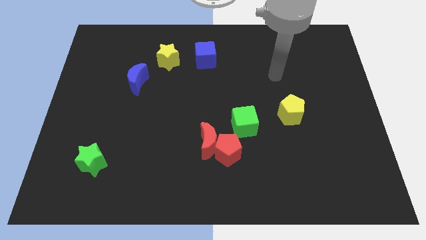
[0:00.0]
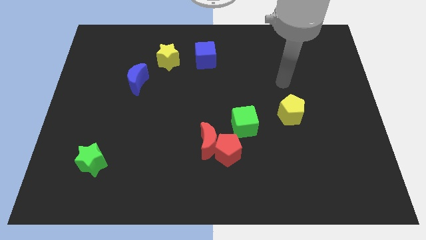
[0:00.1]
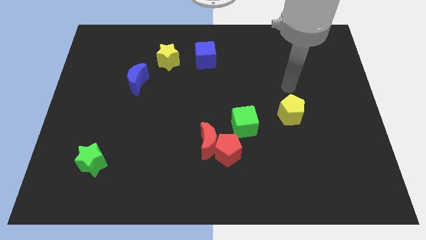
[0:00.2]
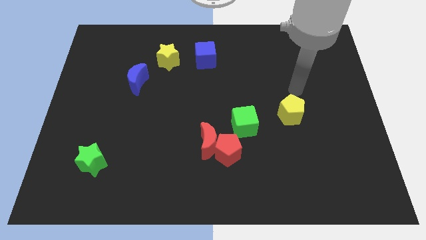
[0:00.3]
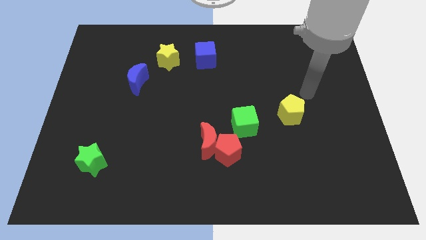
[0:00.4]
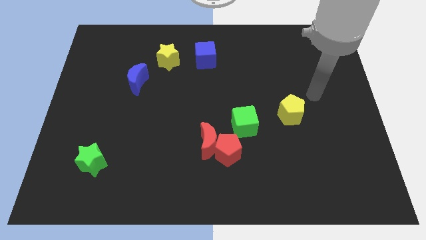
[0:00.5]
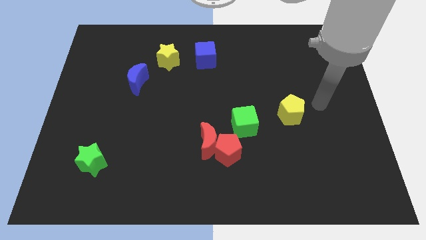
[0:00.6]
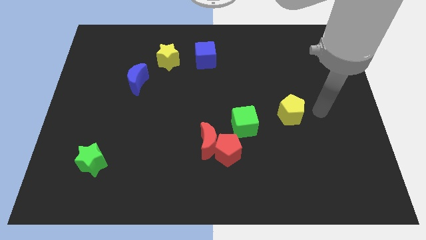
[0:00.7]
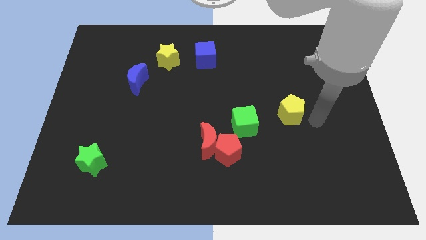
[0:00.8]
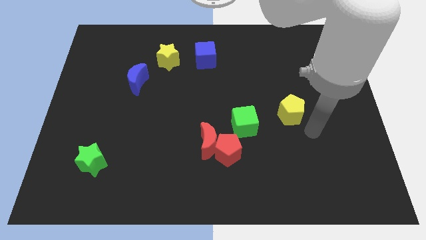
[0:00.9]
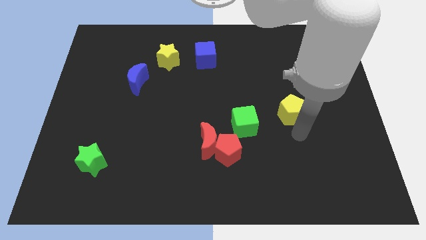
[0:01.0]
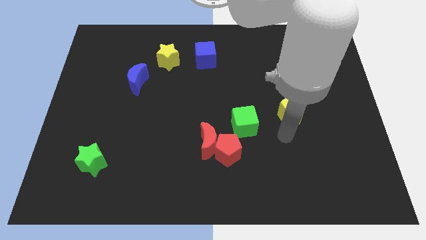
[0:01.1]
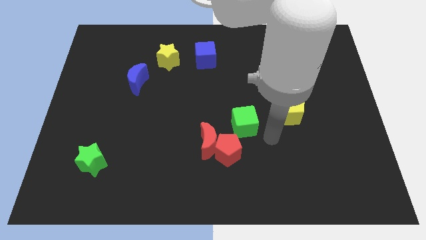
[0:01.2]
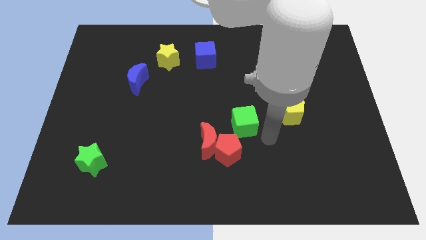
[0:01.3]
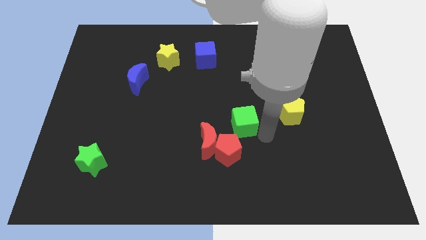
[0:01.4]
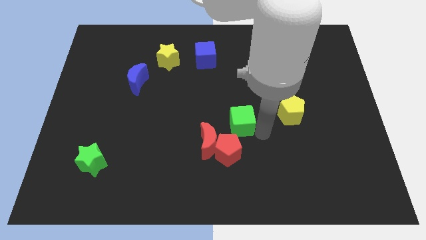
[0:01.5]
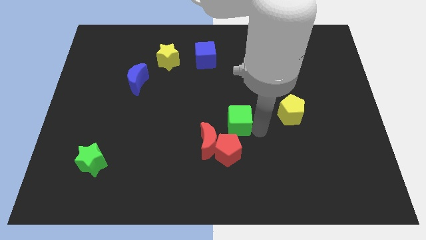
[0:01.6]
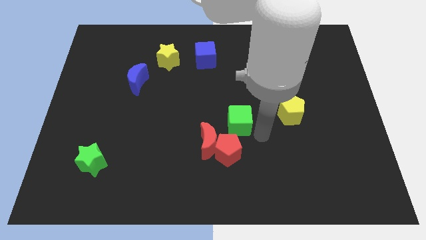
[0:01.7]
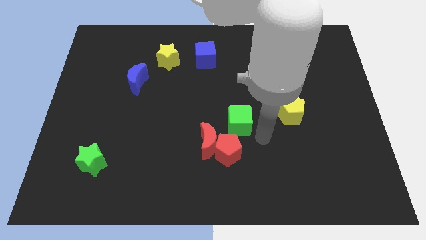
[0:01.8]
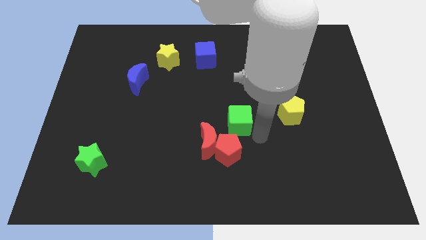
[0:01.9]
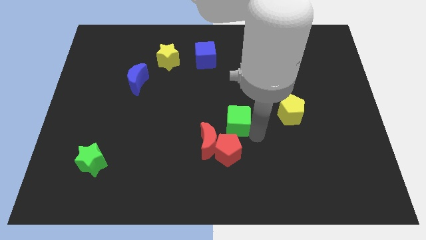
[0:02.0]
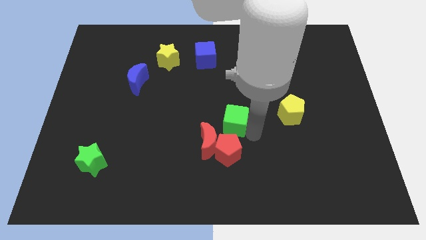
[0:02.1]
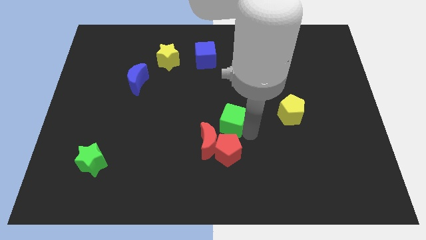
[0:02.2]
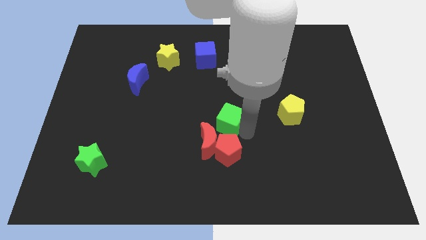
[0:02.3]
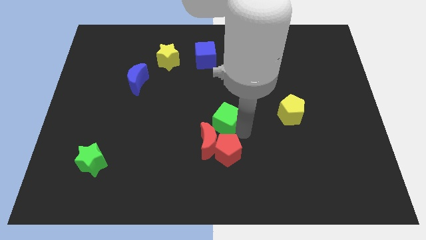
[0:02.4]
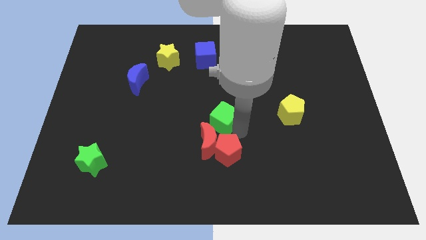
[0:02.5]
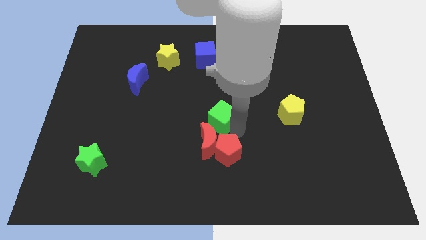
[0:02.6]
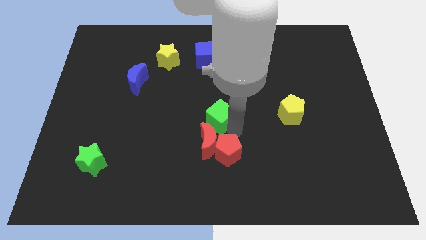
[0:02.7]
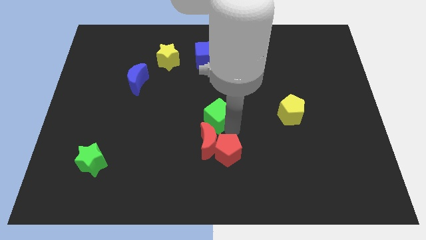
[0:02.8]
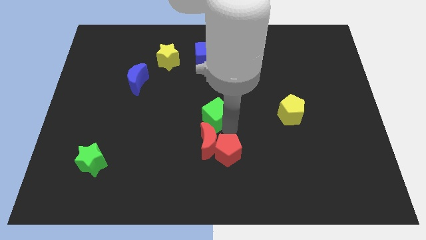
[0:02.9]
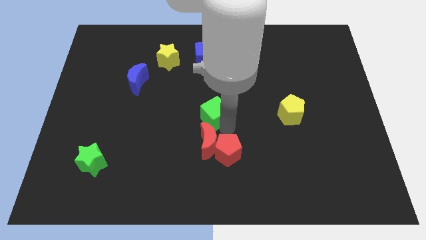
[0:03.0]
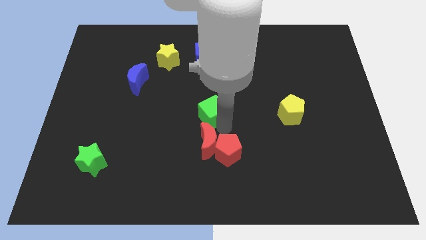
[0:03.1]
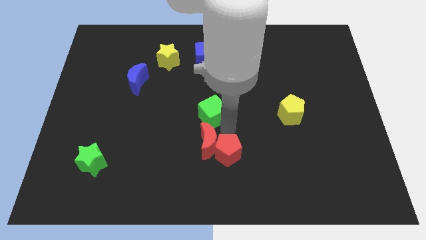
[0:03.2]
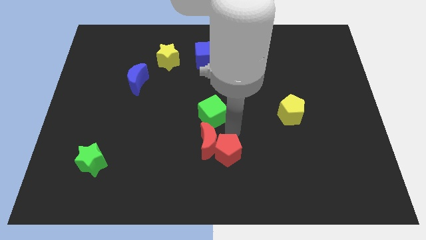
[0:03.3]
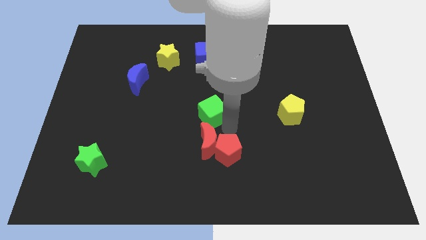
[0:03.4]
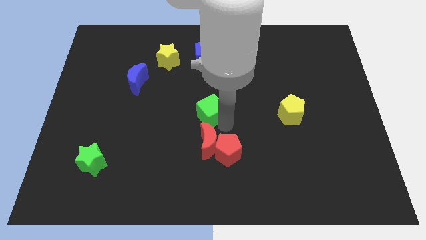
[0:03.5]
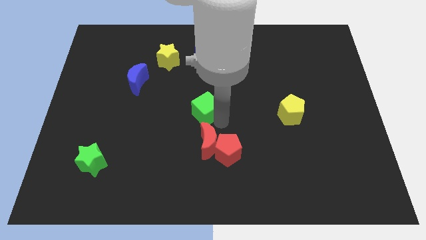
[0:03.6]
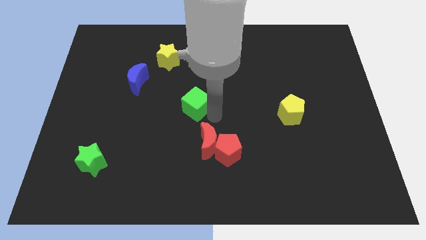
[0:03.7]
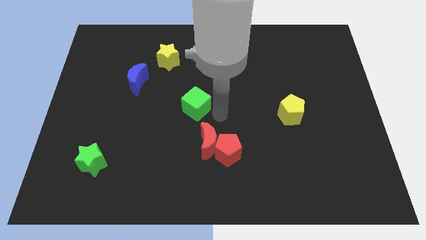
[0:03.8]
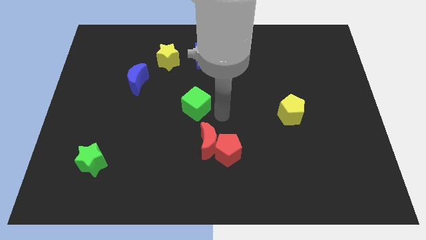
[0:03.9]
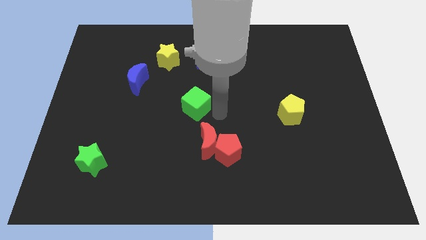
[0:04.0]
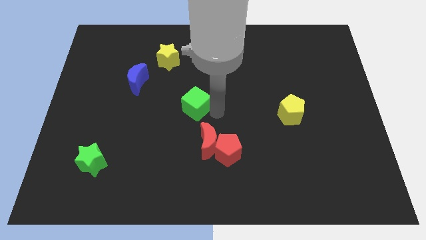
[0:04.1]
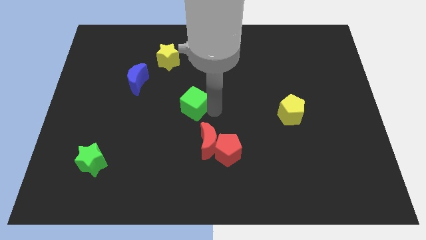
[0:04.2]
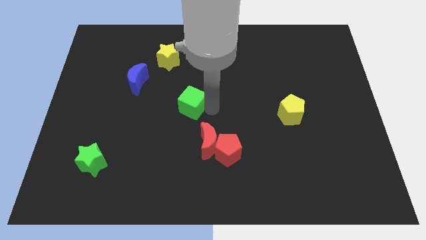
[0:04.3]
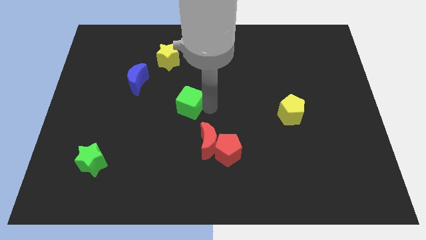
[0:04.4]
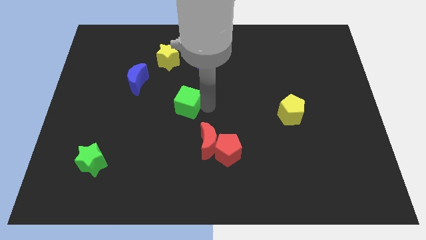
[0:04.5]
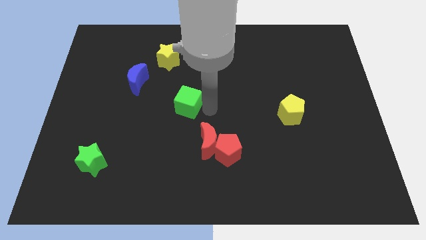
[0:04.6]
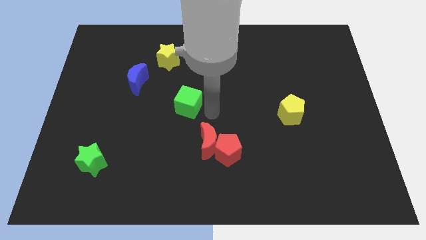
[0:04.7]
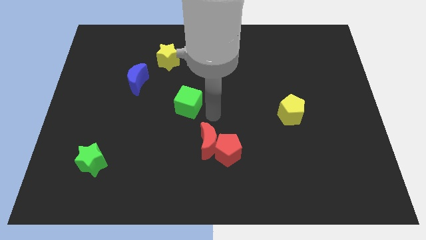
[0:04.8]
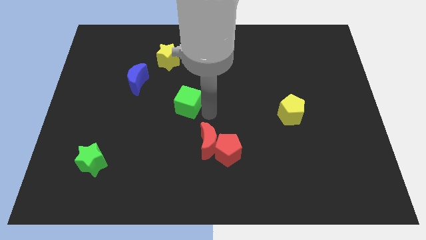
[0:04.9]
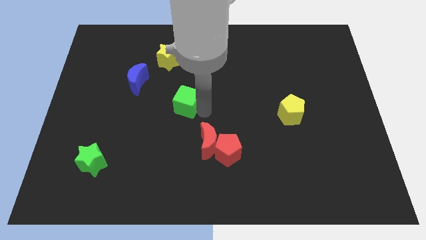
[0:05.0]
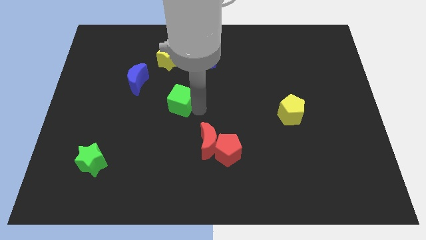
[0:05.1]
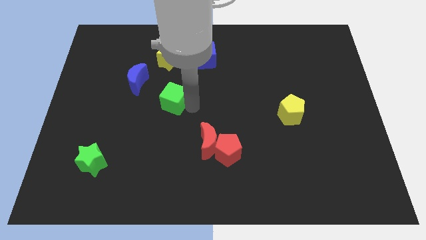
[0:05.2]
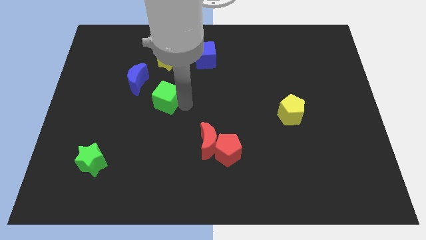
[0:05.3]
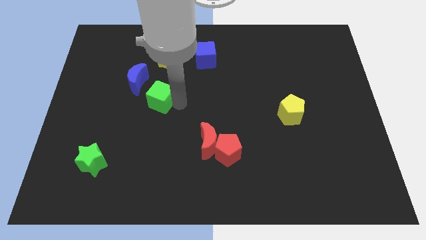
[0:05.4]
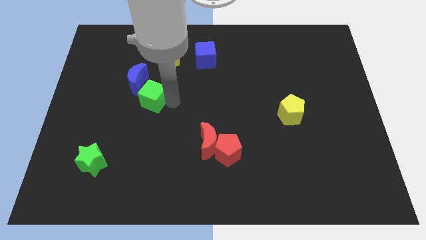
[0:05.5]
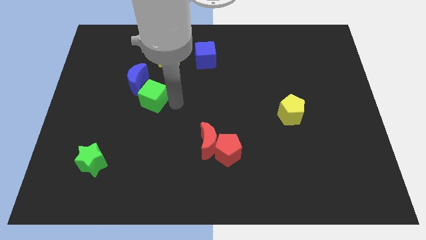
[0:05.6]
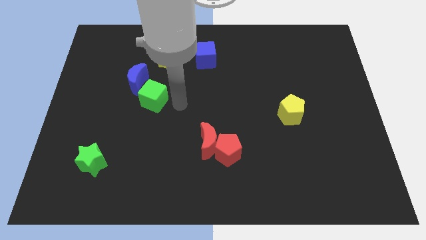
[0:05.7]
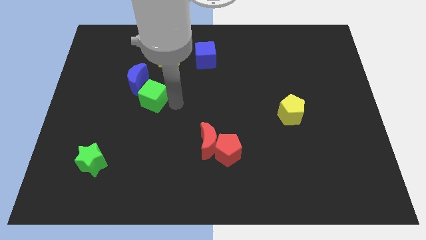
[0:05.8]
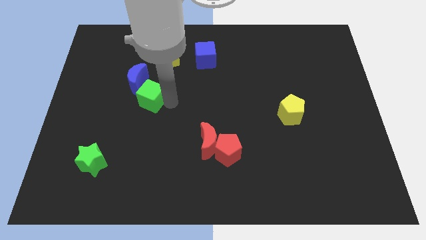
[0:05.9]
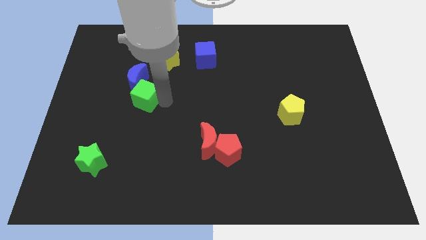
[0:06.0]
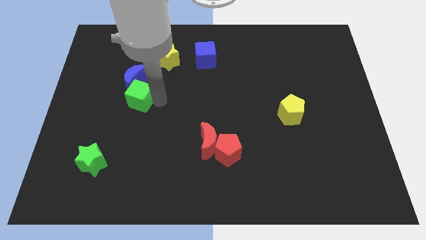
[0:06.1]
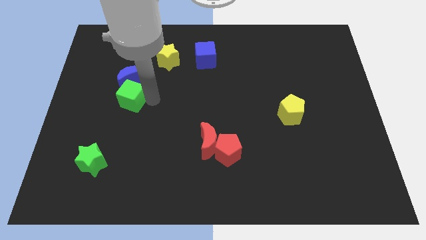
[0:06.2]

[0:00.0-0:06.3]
push the green cube to the bottom left of the blue moon

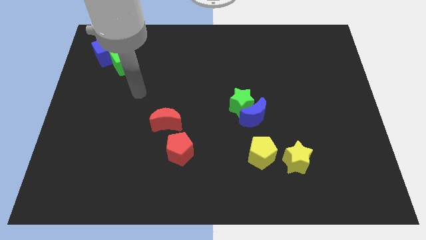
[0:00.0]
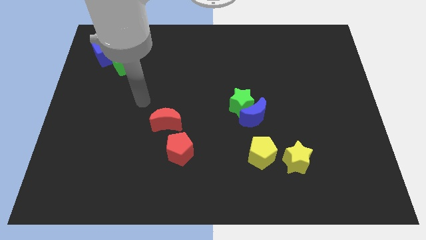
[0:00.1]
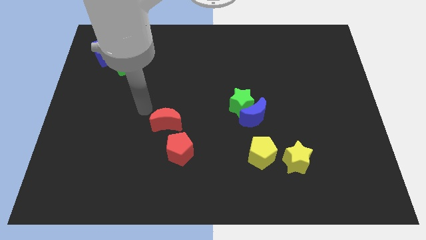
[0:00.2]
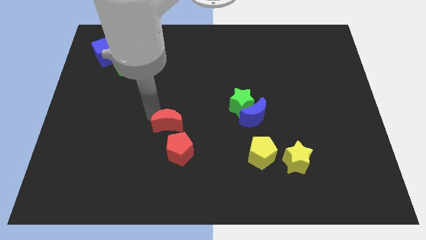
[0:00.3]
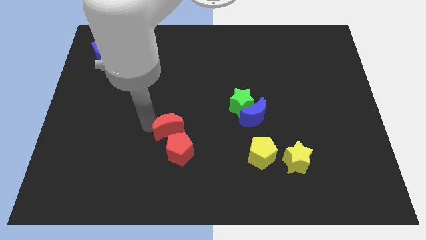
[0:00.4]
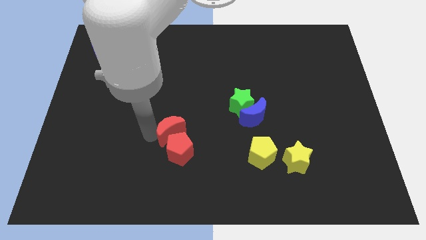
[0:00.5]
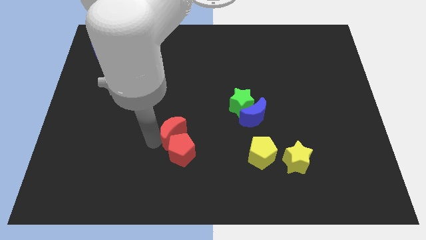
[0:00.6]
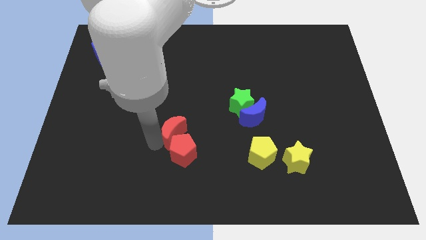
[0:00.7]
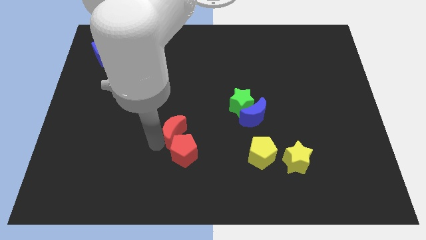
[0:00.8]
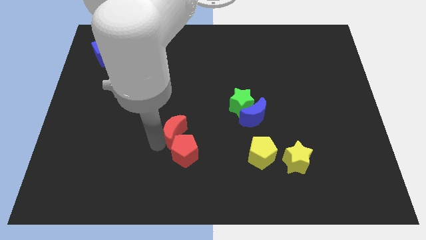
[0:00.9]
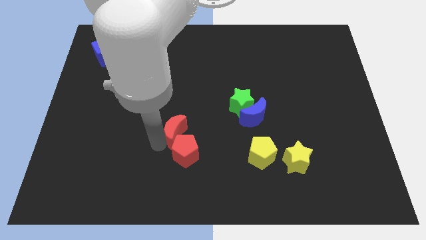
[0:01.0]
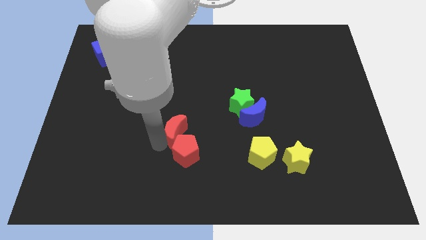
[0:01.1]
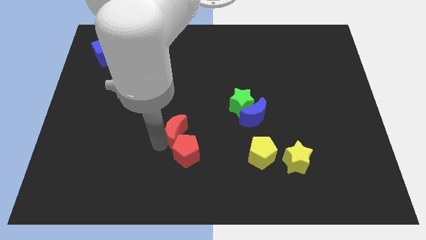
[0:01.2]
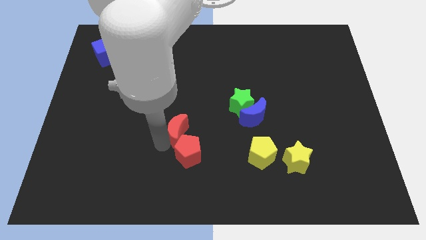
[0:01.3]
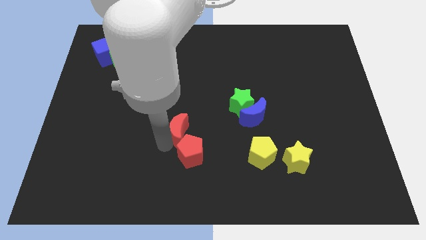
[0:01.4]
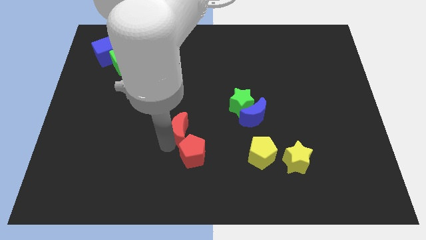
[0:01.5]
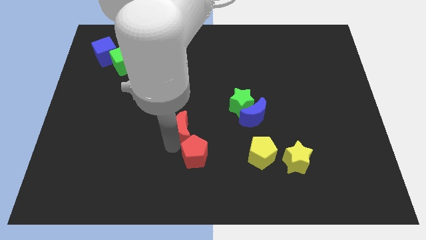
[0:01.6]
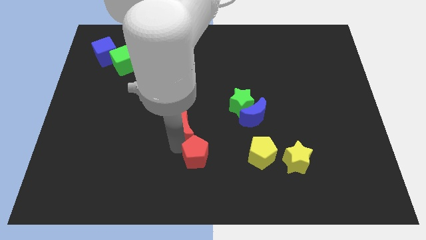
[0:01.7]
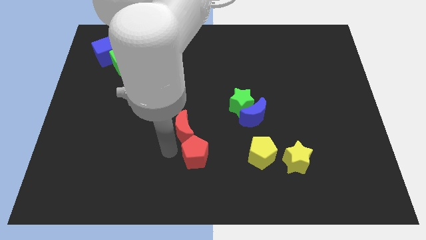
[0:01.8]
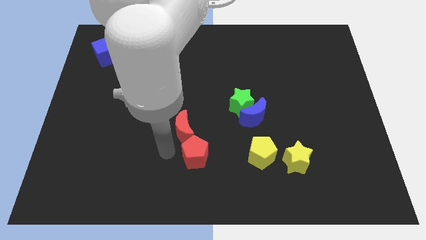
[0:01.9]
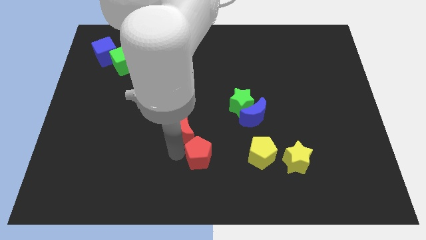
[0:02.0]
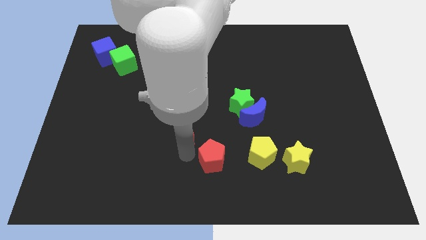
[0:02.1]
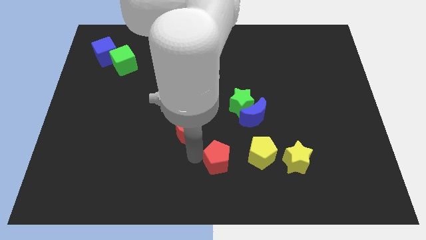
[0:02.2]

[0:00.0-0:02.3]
put the red pentagon left of the yellow star
